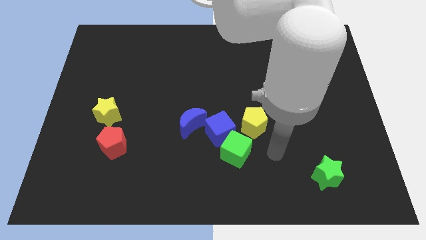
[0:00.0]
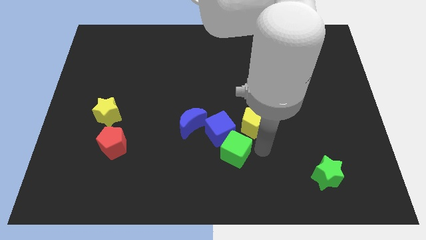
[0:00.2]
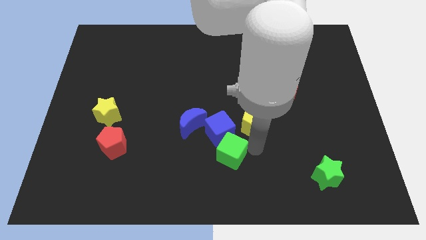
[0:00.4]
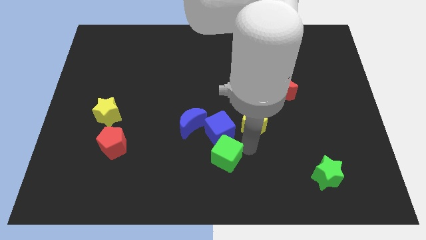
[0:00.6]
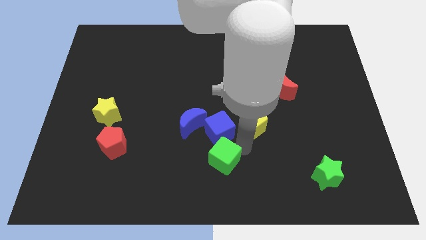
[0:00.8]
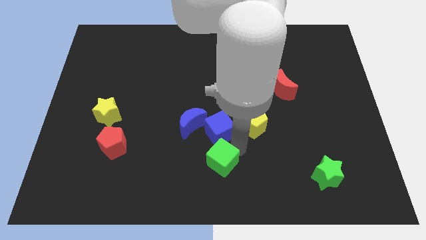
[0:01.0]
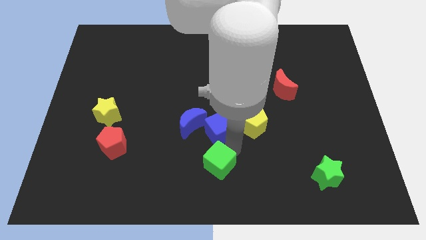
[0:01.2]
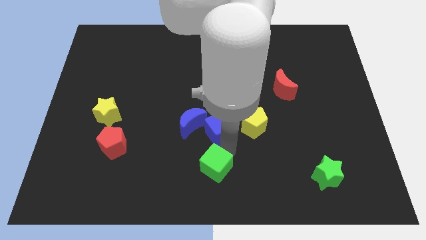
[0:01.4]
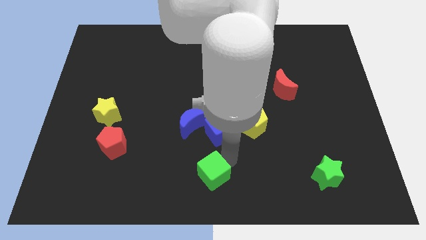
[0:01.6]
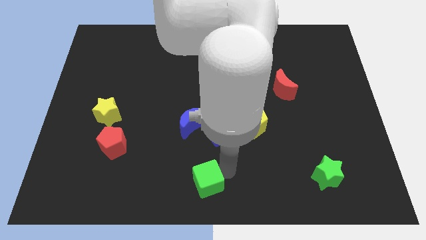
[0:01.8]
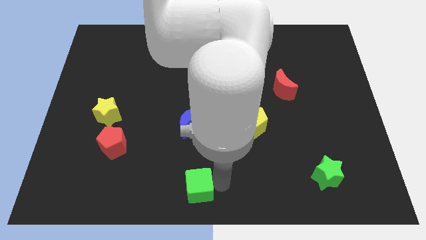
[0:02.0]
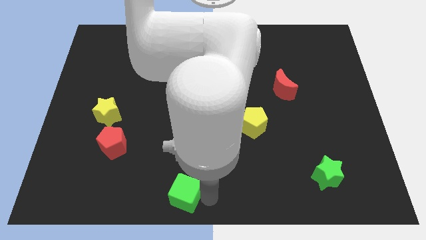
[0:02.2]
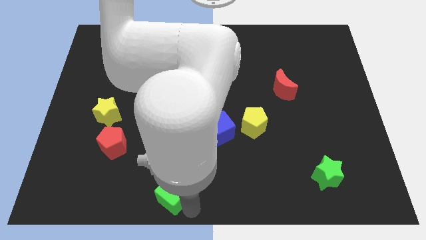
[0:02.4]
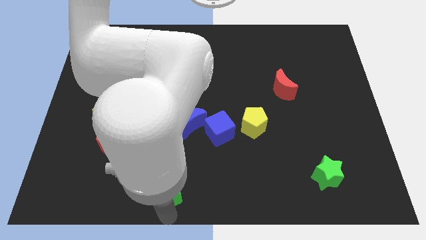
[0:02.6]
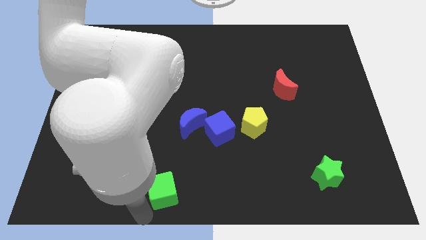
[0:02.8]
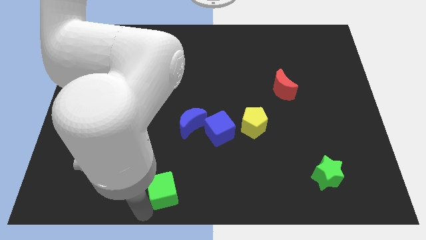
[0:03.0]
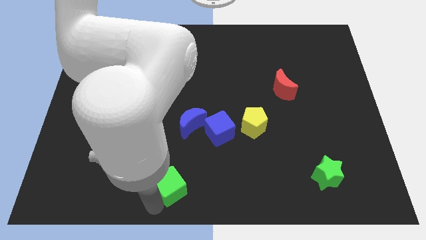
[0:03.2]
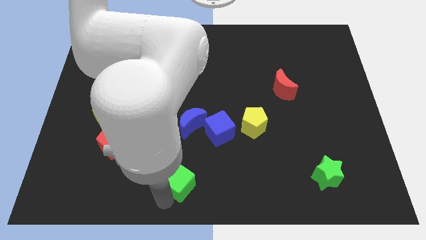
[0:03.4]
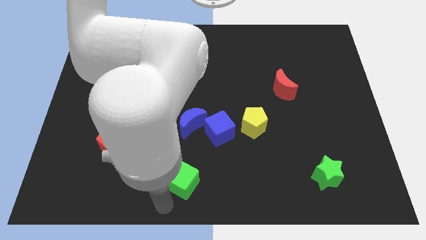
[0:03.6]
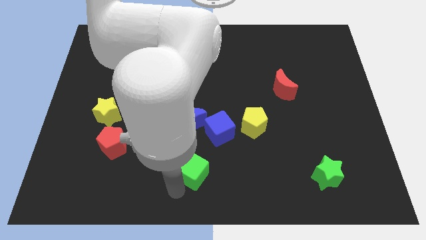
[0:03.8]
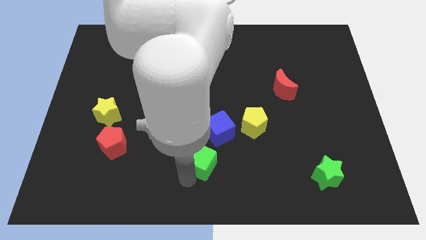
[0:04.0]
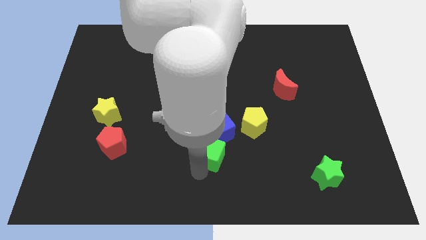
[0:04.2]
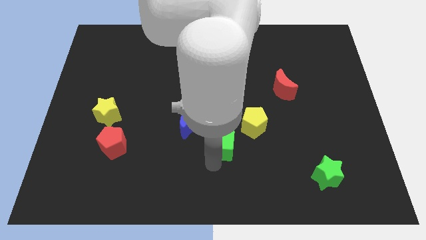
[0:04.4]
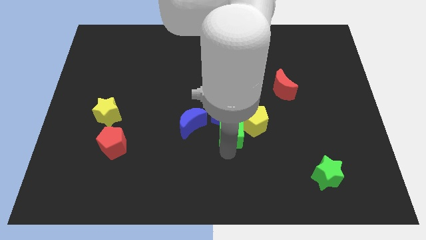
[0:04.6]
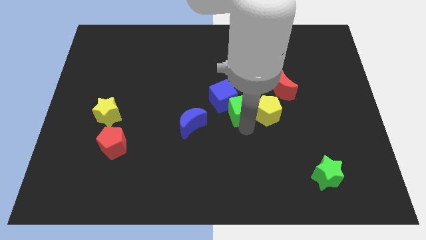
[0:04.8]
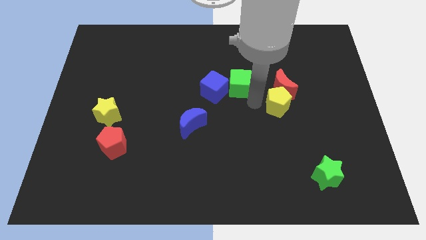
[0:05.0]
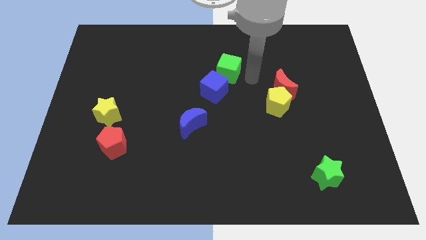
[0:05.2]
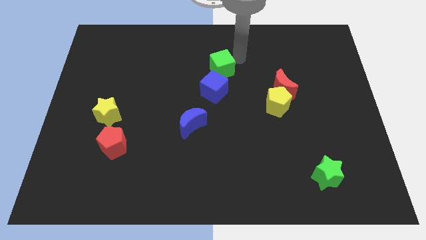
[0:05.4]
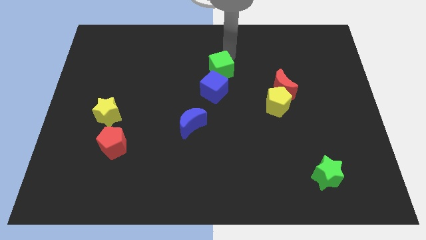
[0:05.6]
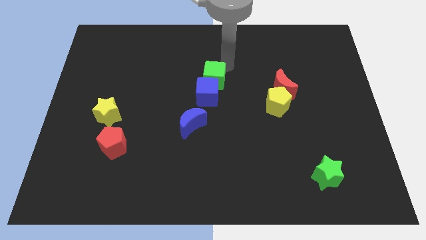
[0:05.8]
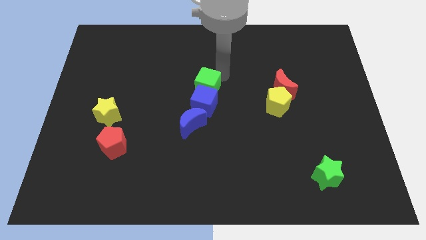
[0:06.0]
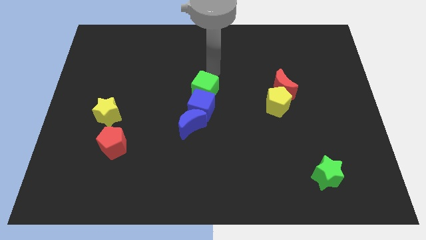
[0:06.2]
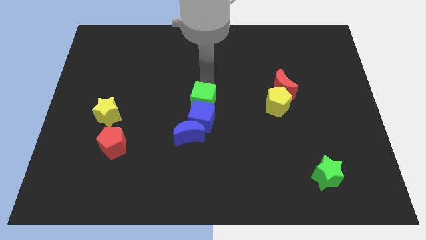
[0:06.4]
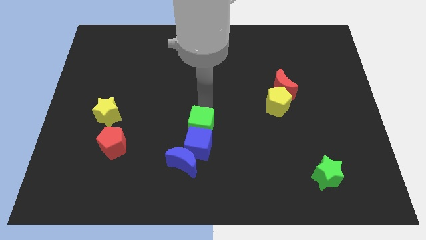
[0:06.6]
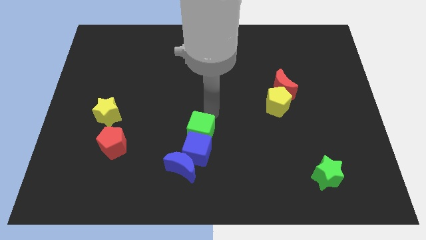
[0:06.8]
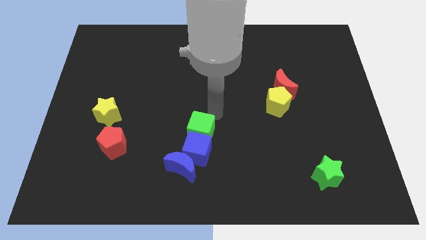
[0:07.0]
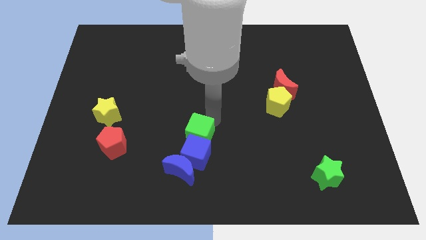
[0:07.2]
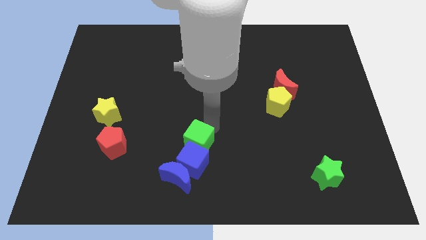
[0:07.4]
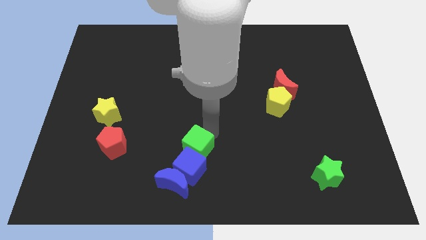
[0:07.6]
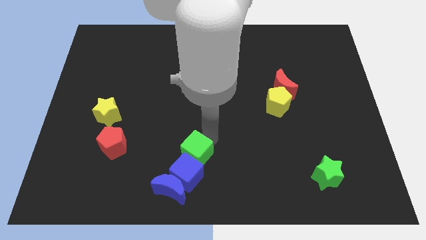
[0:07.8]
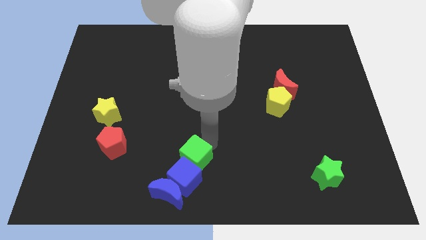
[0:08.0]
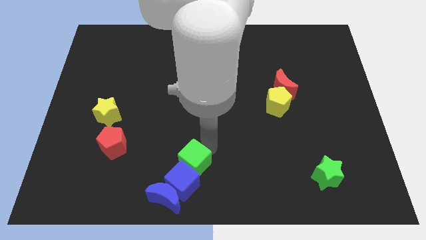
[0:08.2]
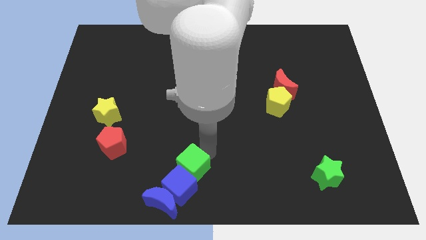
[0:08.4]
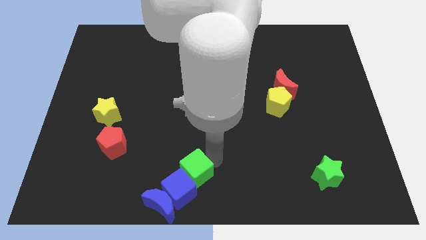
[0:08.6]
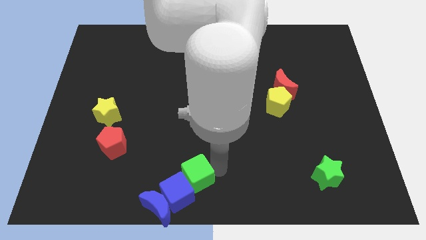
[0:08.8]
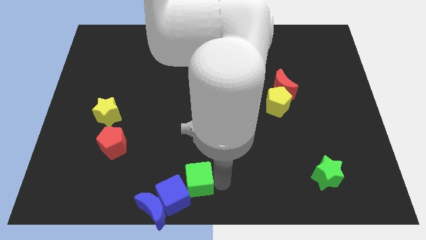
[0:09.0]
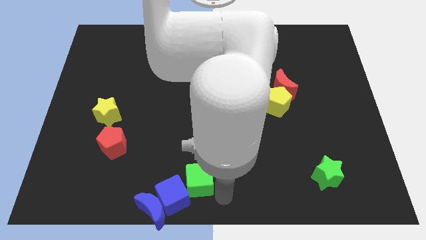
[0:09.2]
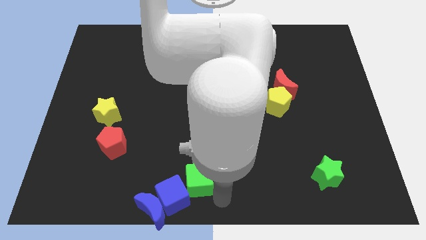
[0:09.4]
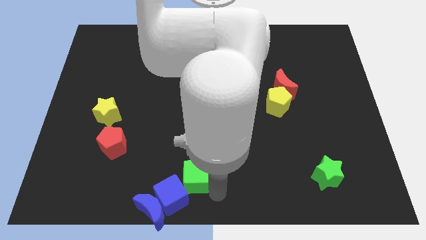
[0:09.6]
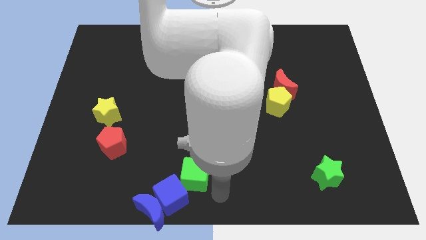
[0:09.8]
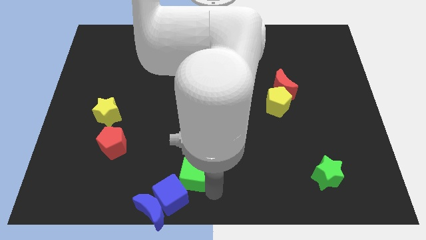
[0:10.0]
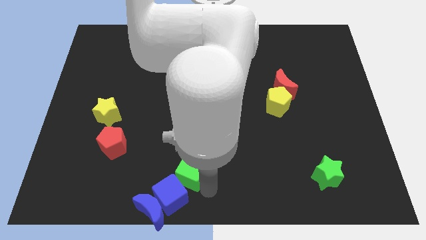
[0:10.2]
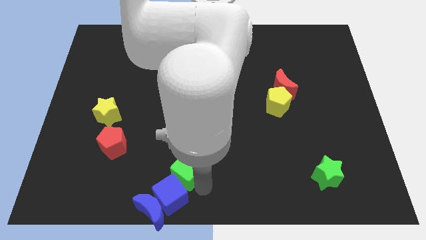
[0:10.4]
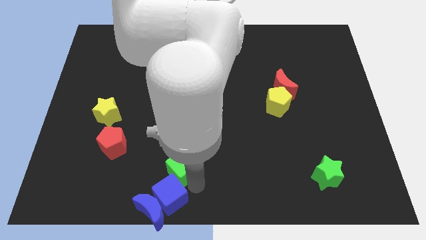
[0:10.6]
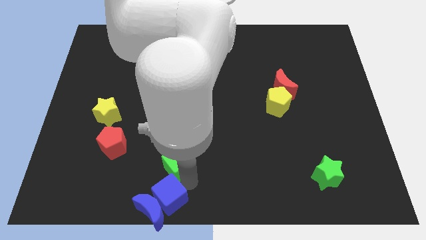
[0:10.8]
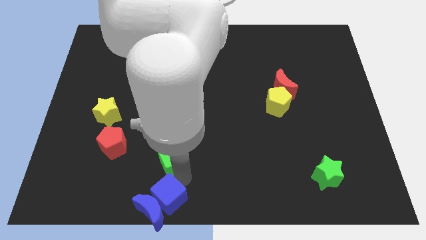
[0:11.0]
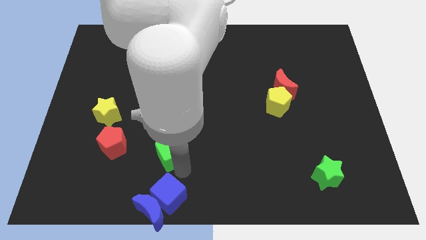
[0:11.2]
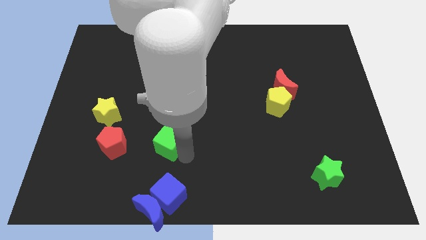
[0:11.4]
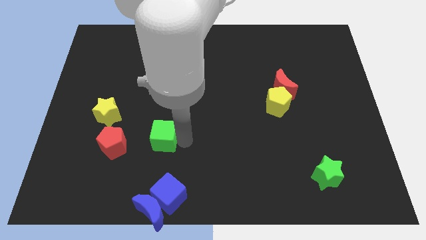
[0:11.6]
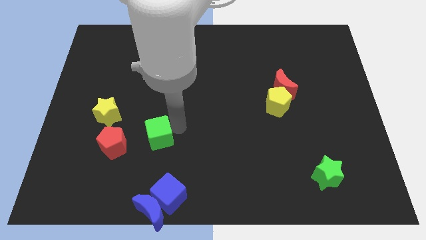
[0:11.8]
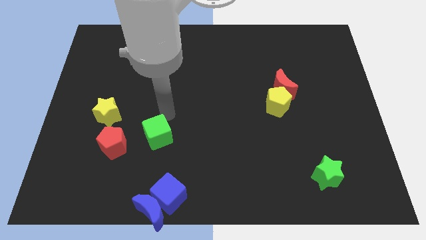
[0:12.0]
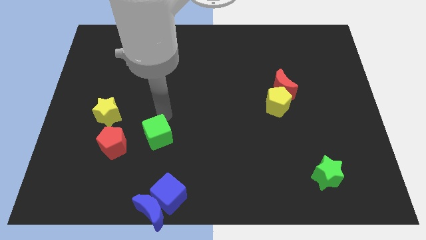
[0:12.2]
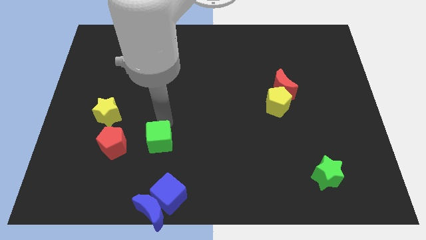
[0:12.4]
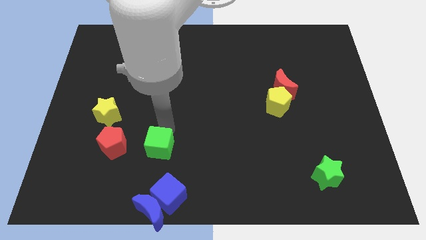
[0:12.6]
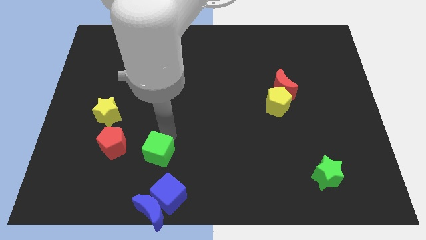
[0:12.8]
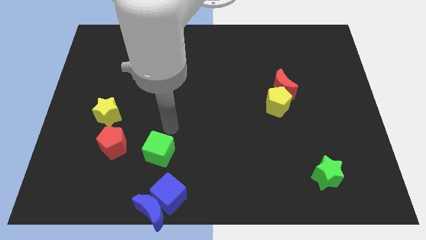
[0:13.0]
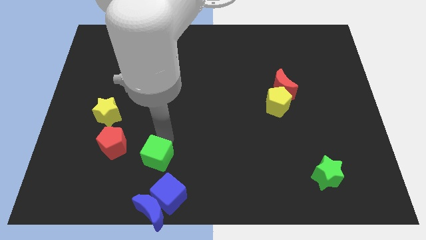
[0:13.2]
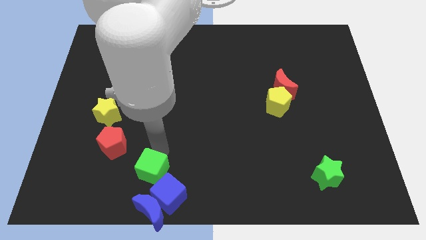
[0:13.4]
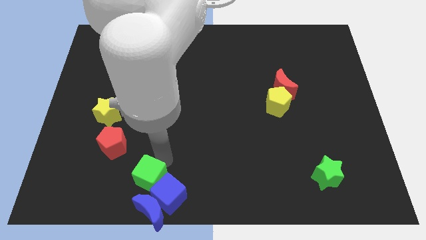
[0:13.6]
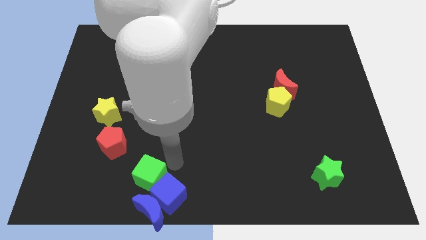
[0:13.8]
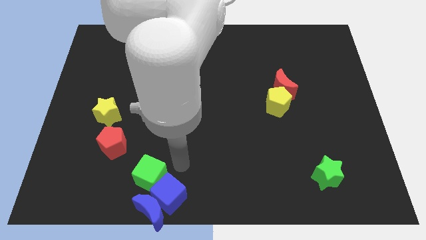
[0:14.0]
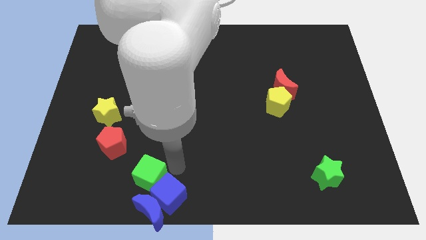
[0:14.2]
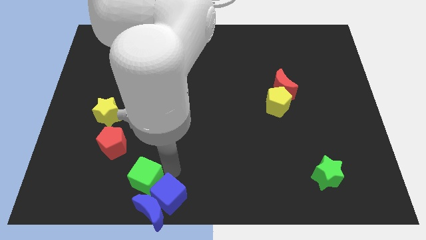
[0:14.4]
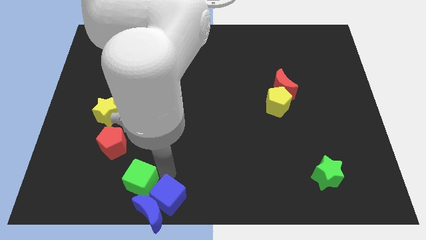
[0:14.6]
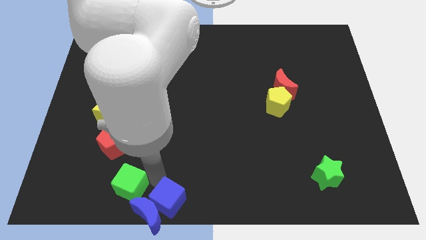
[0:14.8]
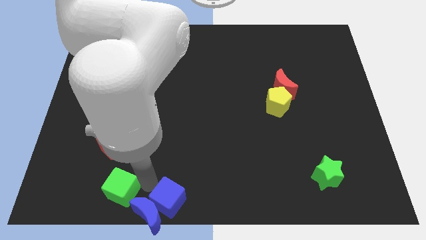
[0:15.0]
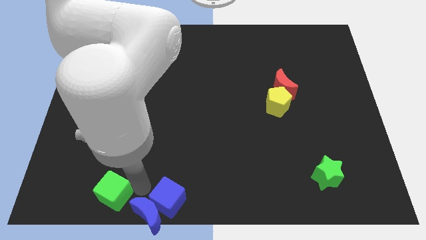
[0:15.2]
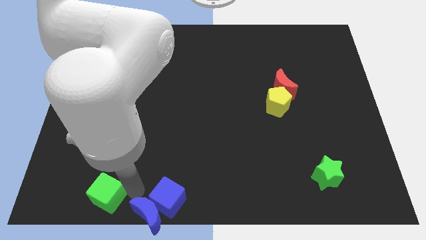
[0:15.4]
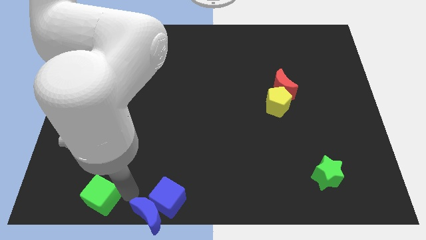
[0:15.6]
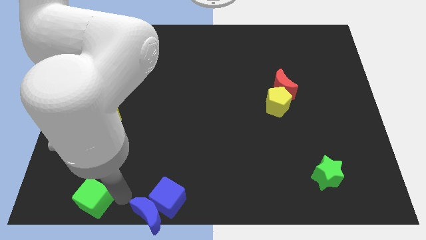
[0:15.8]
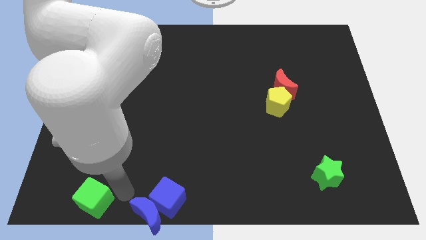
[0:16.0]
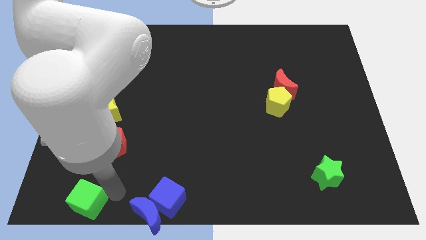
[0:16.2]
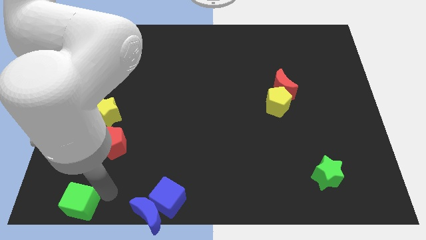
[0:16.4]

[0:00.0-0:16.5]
move the green cube to the bottom left of the board
